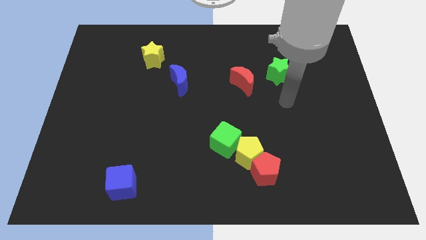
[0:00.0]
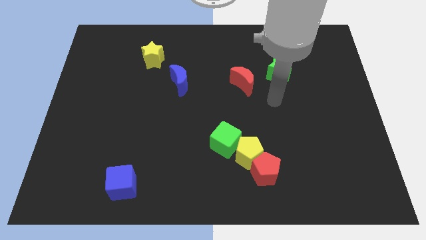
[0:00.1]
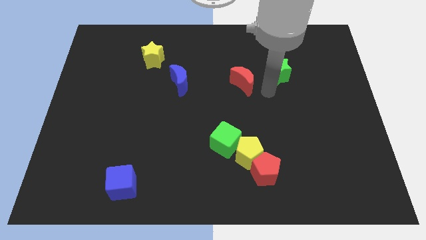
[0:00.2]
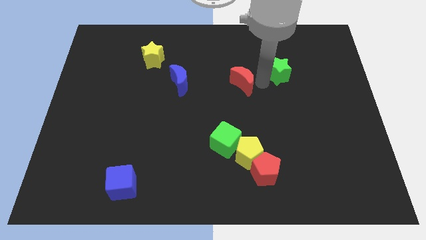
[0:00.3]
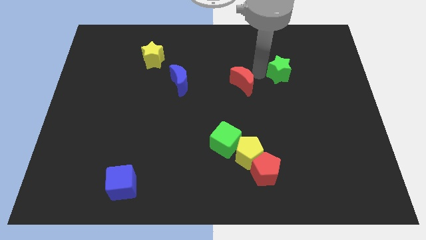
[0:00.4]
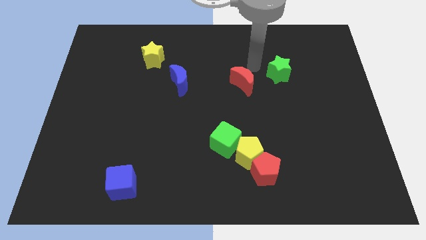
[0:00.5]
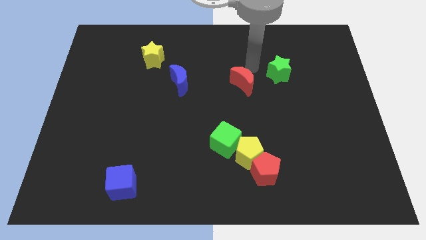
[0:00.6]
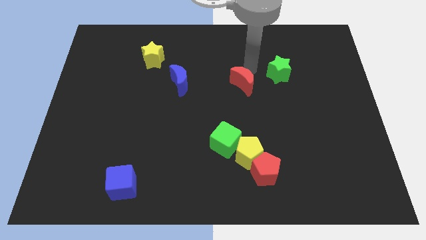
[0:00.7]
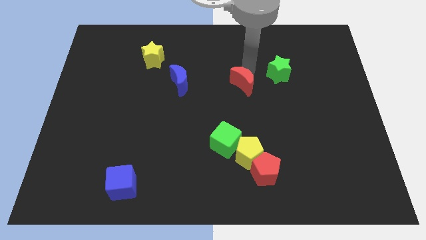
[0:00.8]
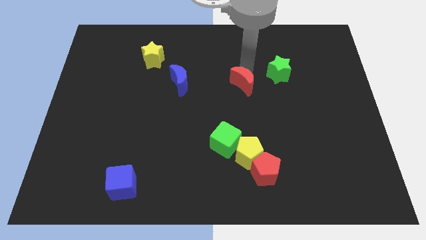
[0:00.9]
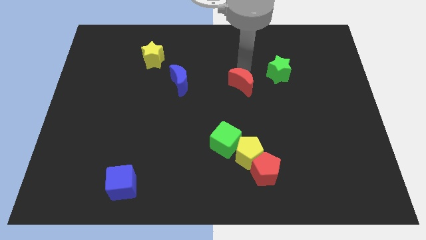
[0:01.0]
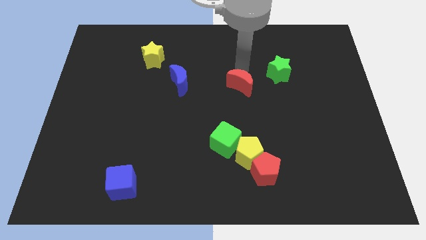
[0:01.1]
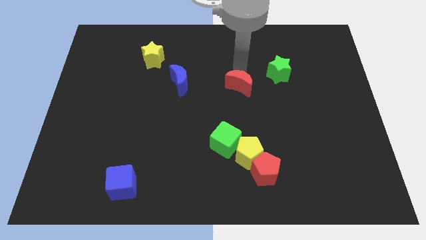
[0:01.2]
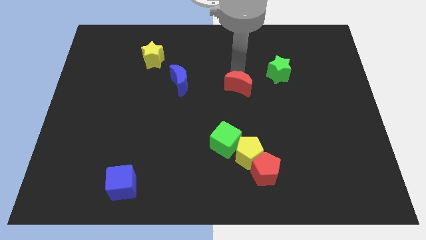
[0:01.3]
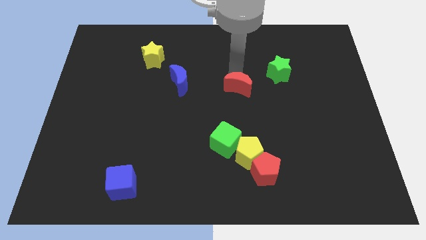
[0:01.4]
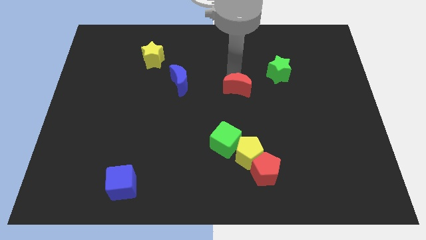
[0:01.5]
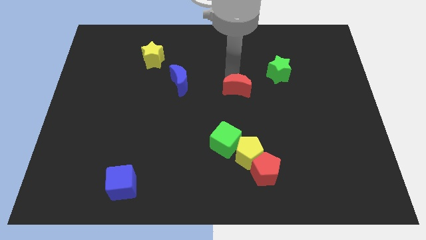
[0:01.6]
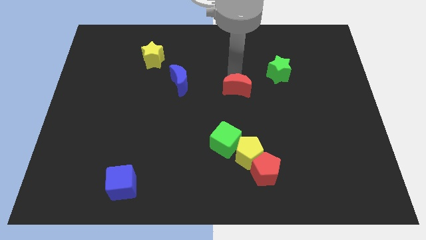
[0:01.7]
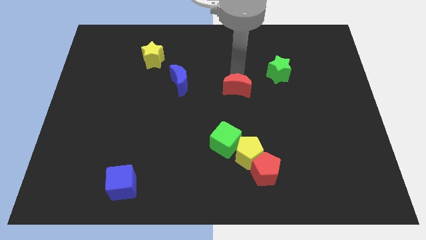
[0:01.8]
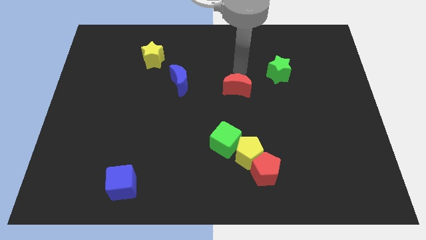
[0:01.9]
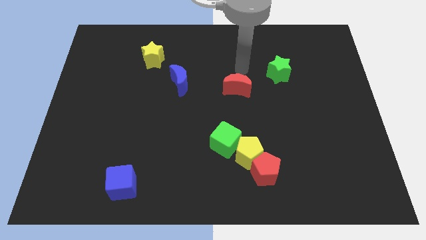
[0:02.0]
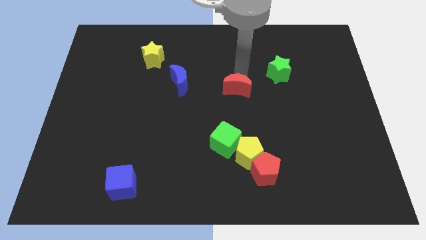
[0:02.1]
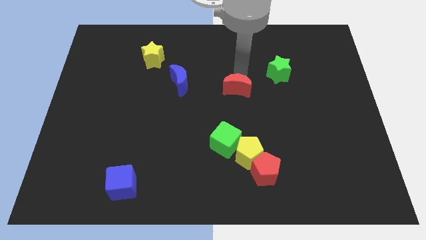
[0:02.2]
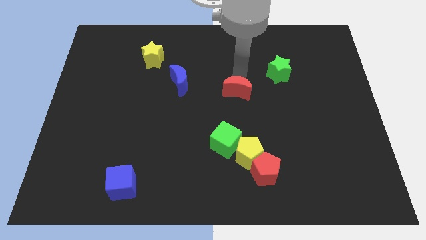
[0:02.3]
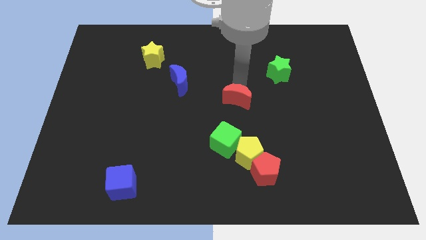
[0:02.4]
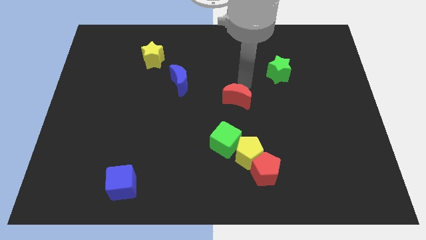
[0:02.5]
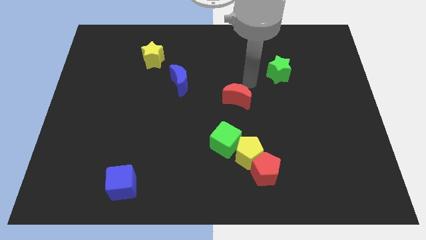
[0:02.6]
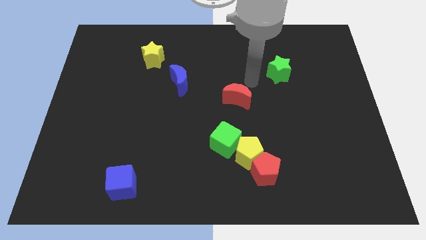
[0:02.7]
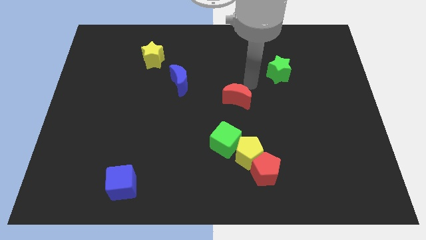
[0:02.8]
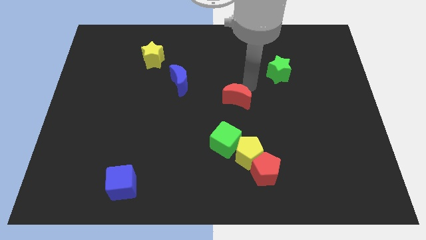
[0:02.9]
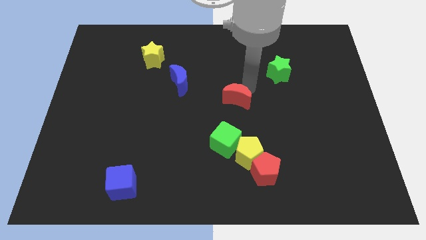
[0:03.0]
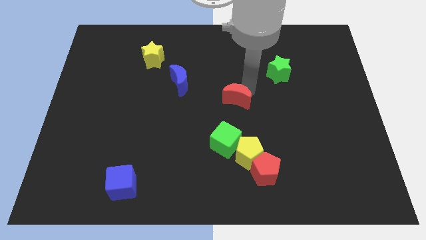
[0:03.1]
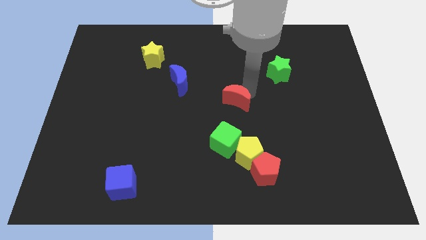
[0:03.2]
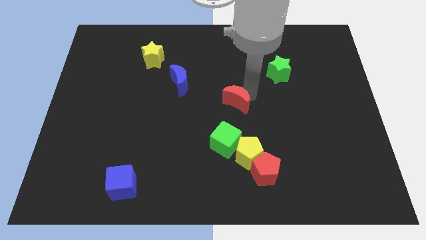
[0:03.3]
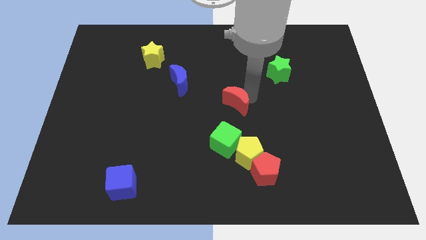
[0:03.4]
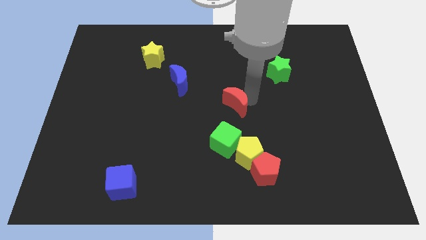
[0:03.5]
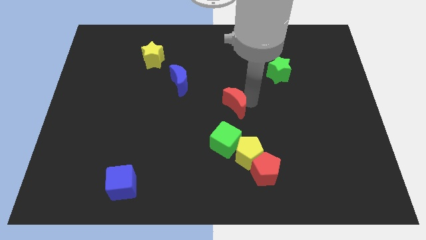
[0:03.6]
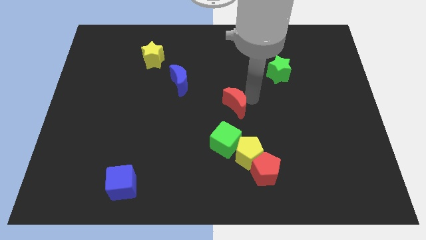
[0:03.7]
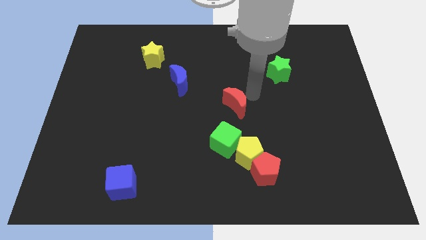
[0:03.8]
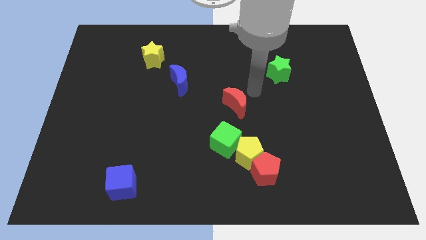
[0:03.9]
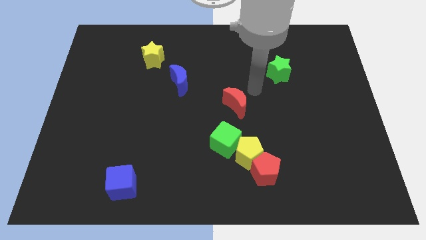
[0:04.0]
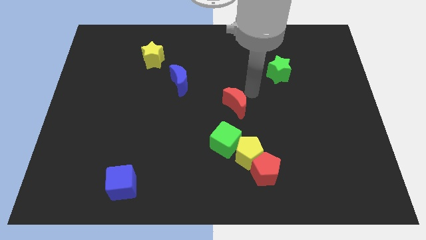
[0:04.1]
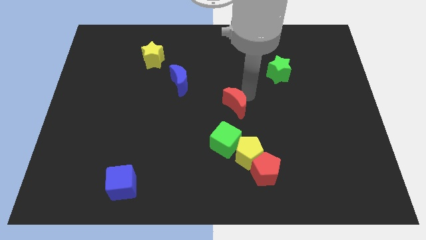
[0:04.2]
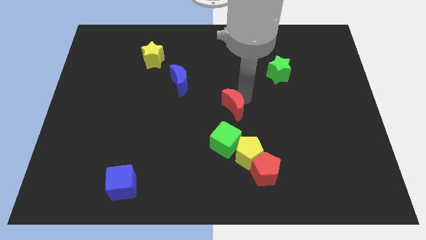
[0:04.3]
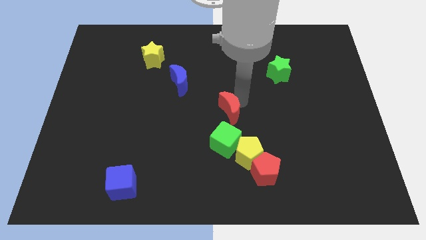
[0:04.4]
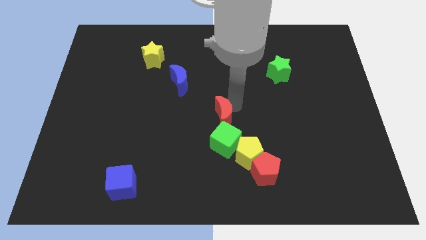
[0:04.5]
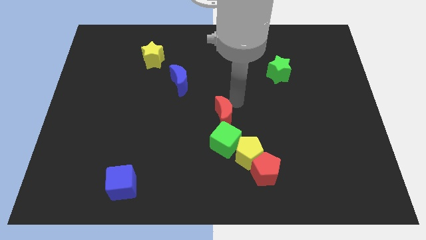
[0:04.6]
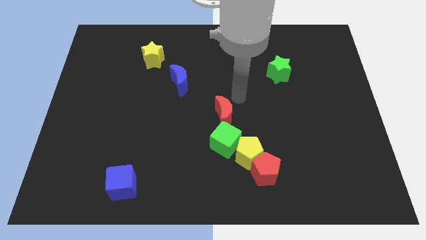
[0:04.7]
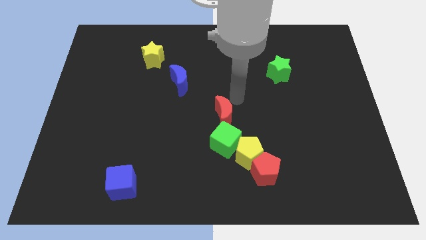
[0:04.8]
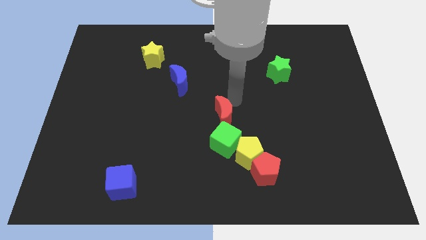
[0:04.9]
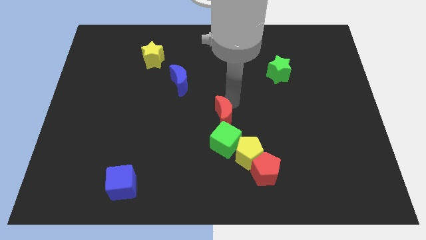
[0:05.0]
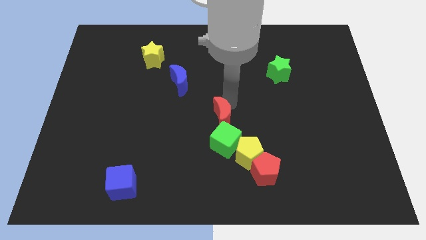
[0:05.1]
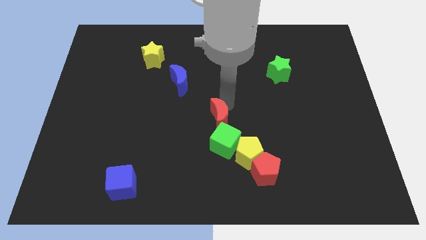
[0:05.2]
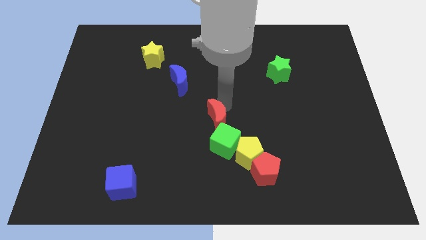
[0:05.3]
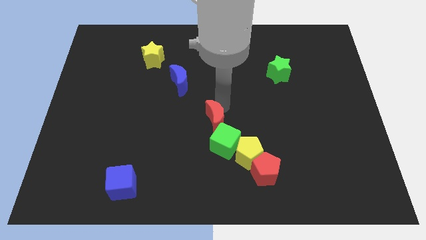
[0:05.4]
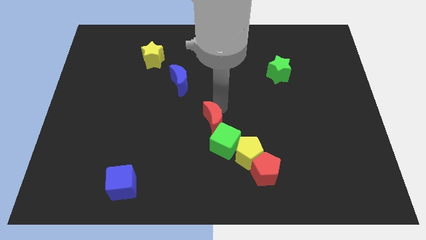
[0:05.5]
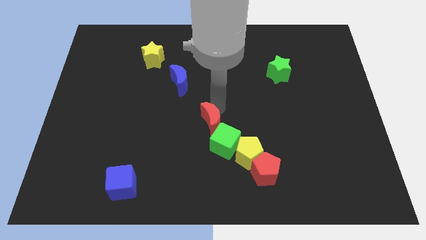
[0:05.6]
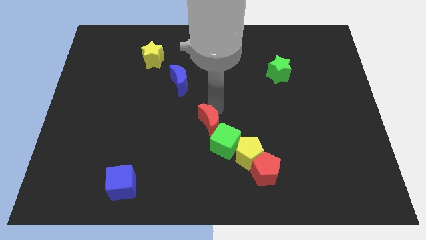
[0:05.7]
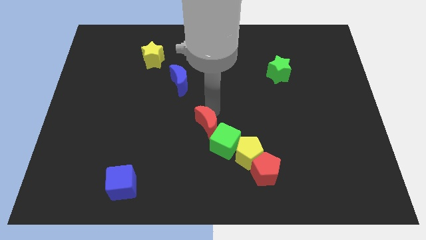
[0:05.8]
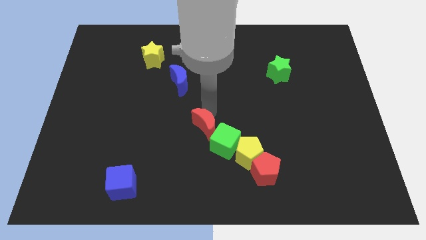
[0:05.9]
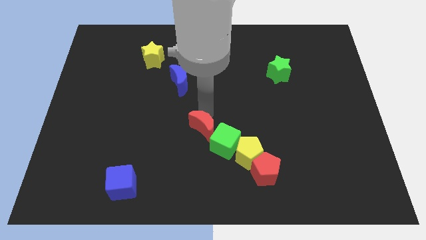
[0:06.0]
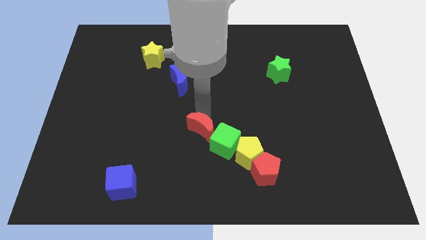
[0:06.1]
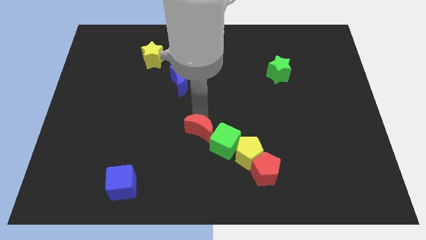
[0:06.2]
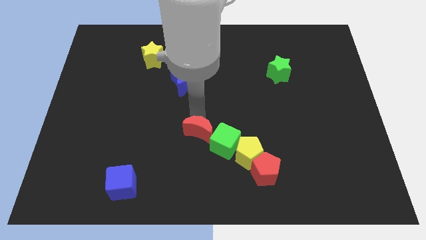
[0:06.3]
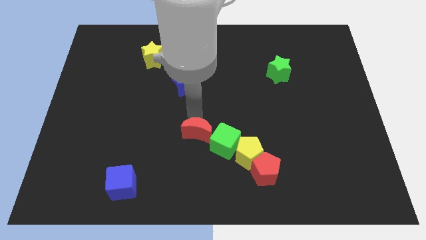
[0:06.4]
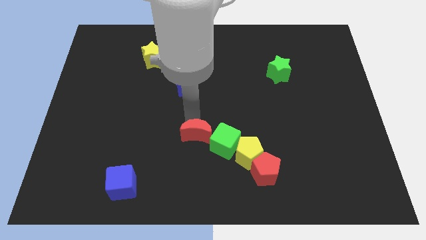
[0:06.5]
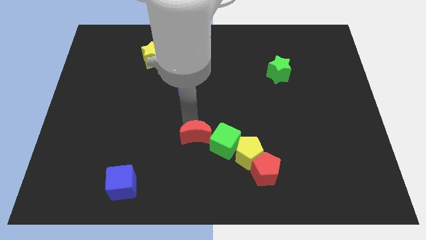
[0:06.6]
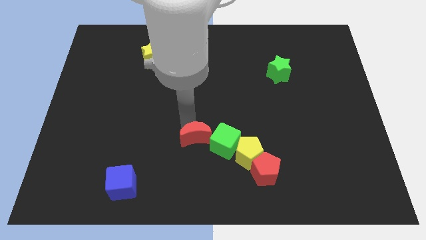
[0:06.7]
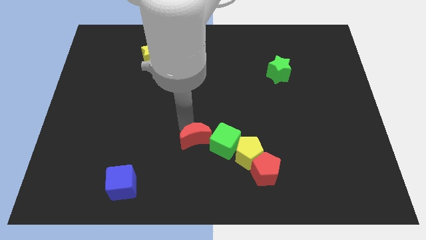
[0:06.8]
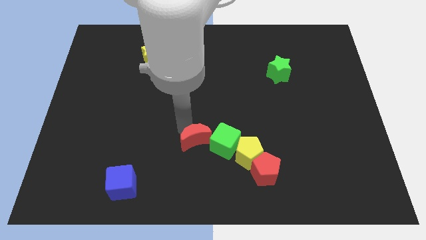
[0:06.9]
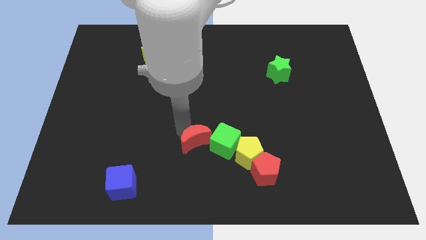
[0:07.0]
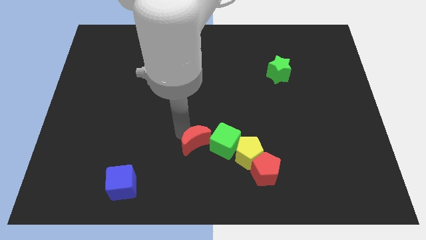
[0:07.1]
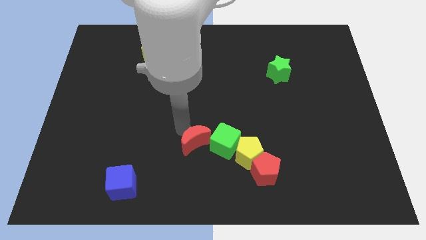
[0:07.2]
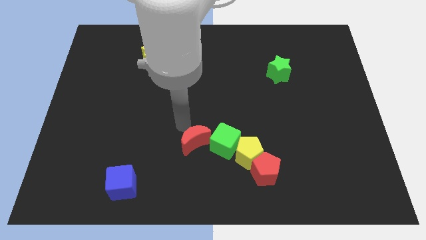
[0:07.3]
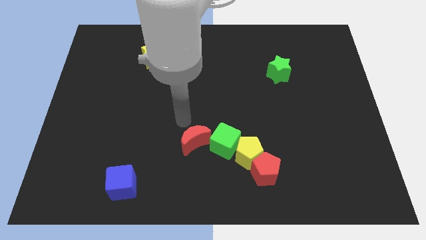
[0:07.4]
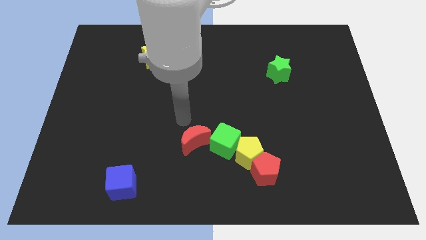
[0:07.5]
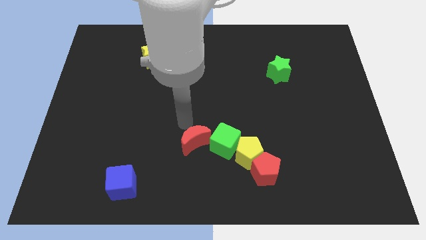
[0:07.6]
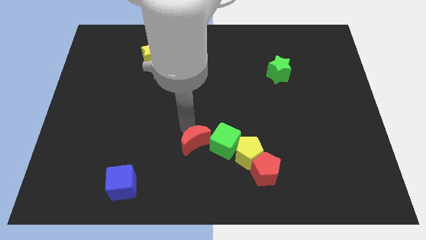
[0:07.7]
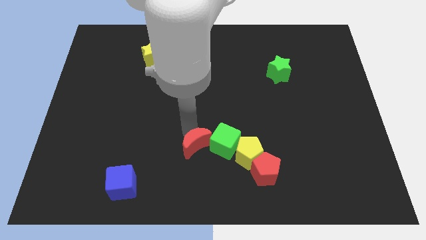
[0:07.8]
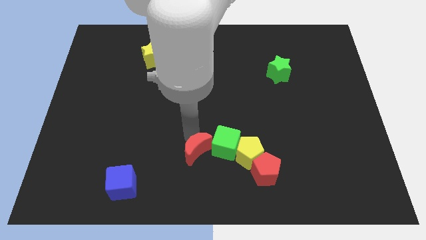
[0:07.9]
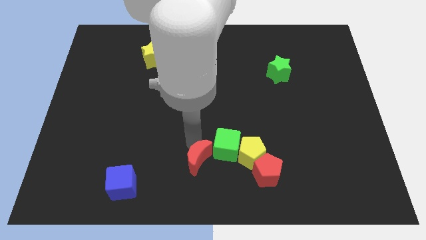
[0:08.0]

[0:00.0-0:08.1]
move the red moon to the bottom side
